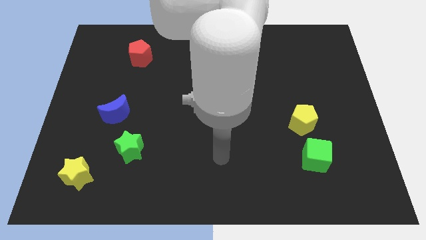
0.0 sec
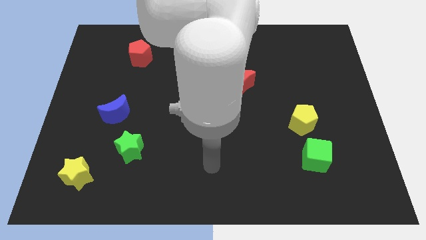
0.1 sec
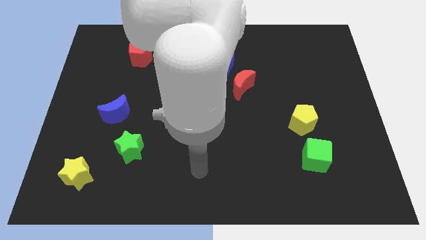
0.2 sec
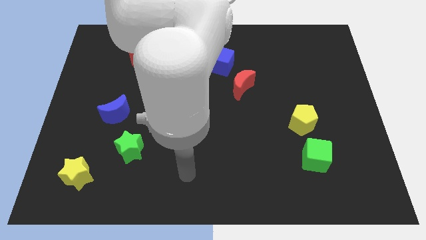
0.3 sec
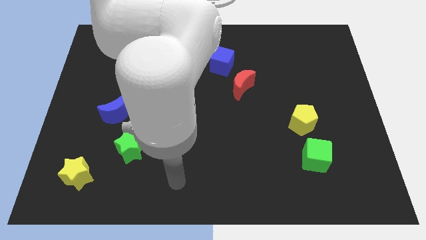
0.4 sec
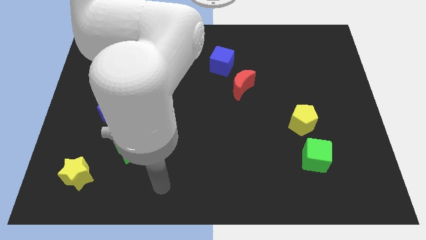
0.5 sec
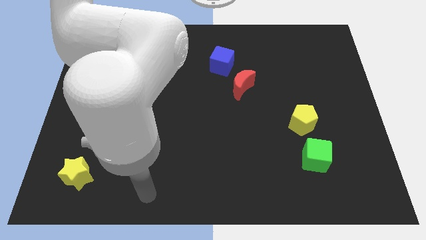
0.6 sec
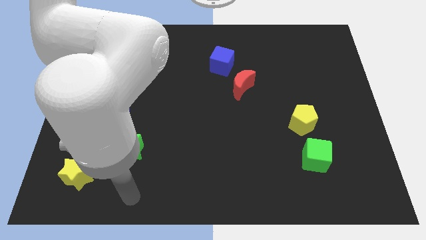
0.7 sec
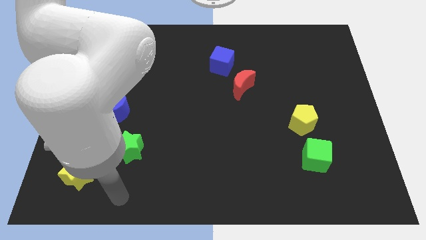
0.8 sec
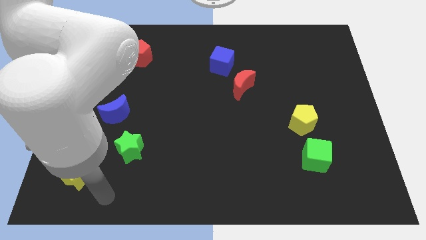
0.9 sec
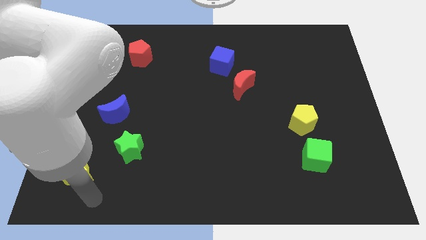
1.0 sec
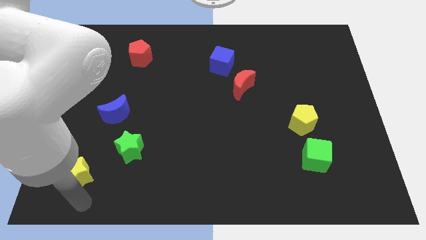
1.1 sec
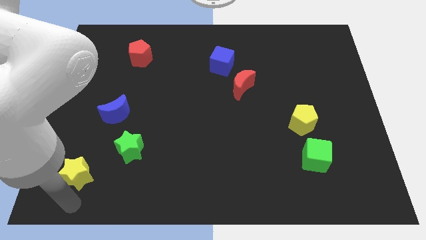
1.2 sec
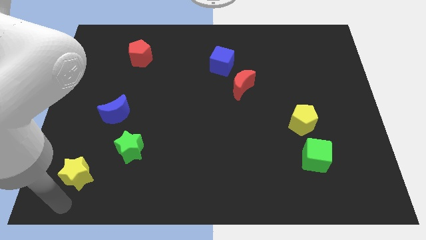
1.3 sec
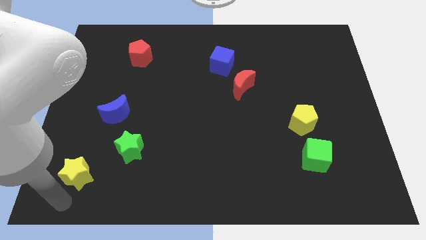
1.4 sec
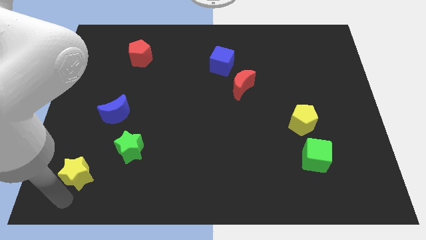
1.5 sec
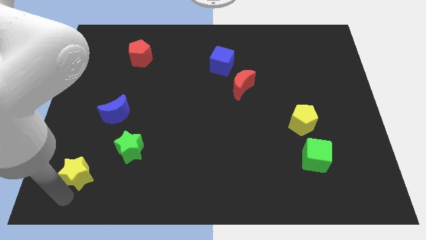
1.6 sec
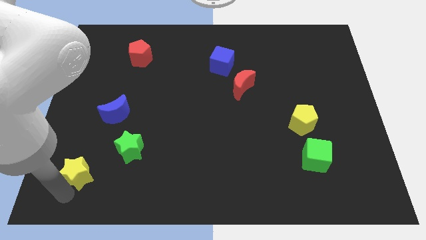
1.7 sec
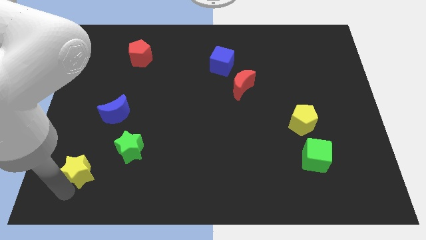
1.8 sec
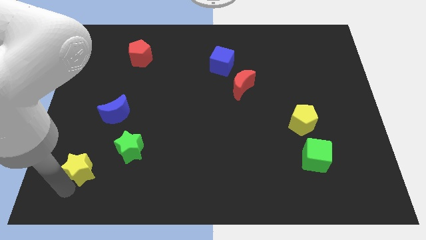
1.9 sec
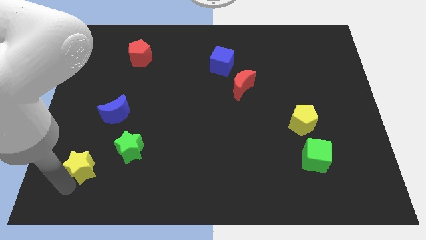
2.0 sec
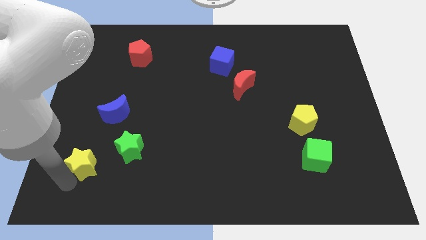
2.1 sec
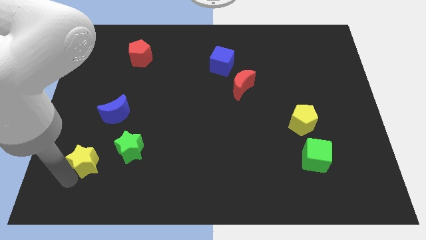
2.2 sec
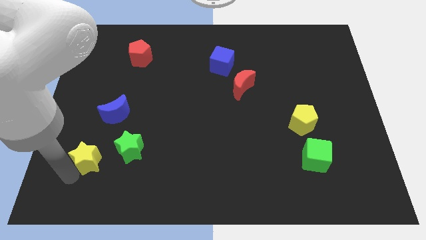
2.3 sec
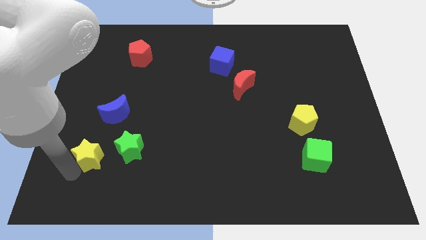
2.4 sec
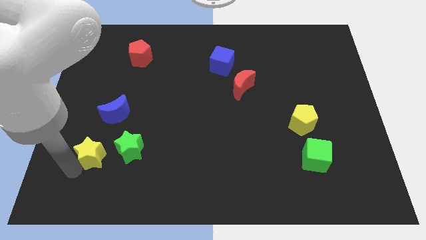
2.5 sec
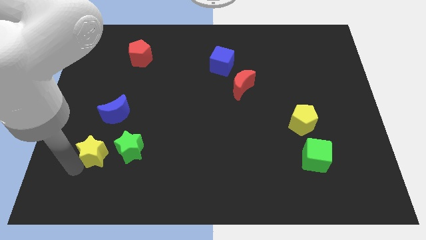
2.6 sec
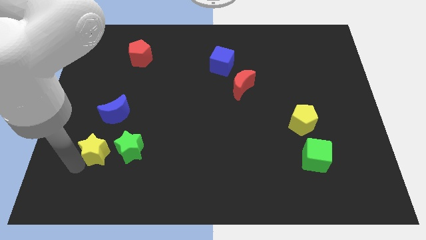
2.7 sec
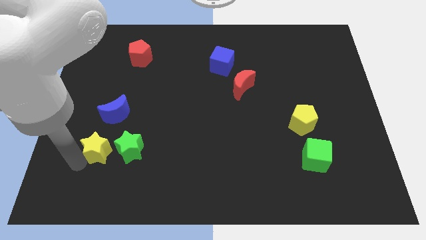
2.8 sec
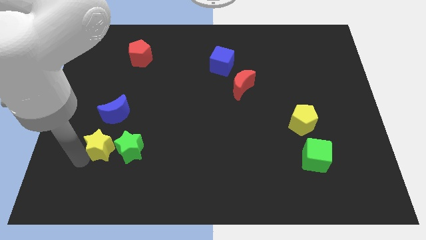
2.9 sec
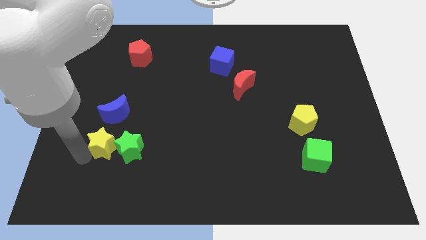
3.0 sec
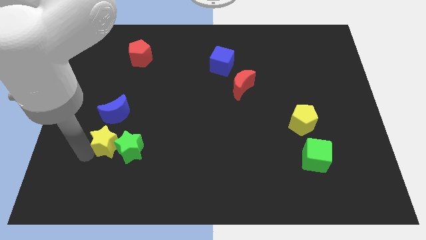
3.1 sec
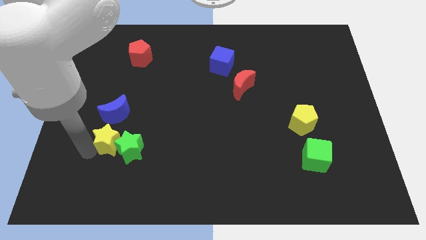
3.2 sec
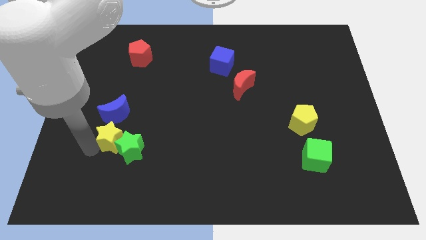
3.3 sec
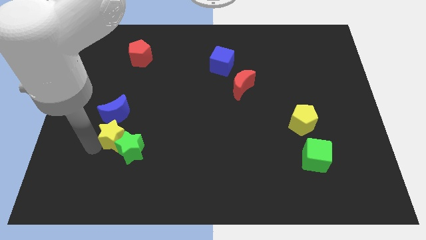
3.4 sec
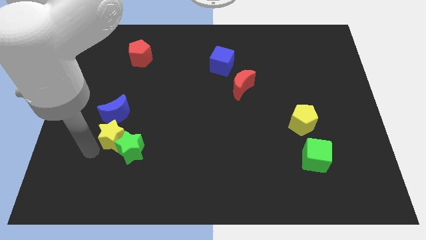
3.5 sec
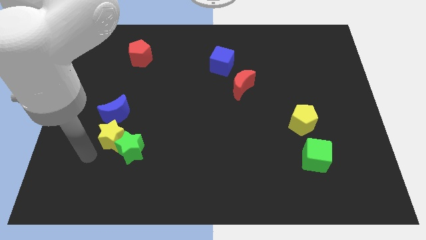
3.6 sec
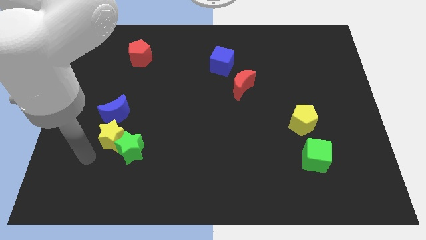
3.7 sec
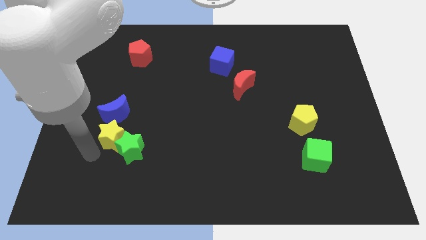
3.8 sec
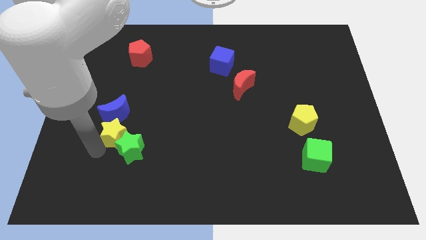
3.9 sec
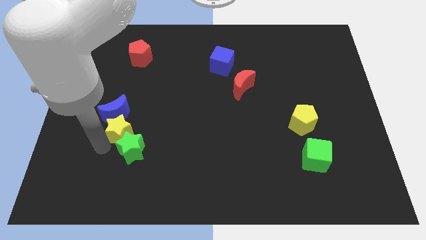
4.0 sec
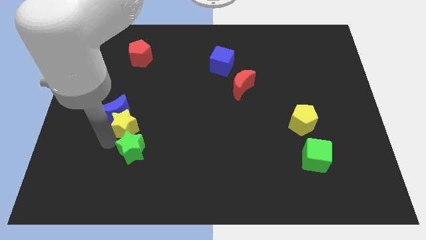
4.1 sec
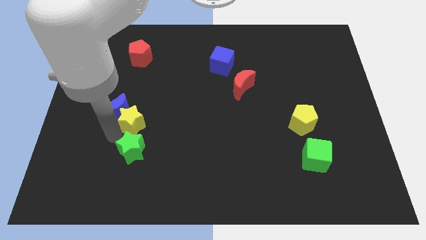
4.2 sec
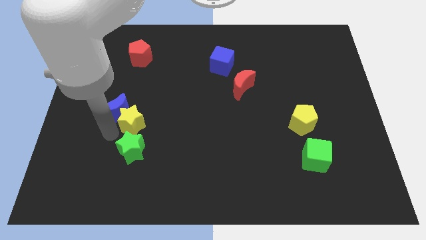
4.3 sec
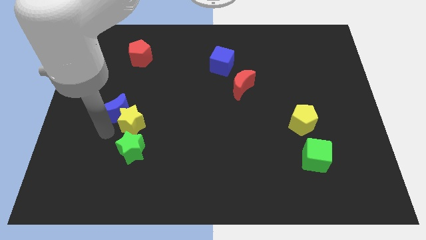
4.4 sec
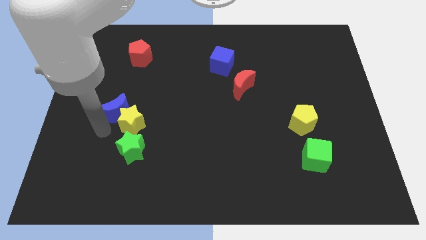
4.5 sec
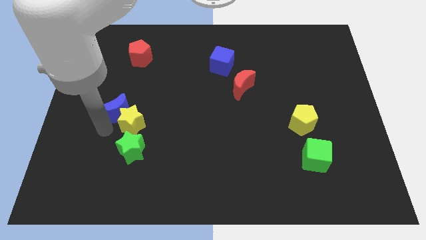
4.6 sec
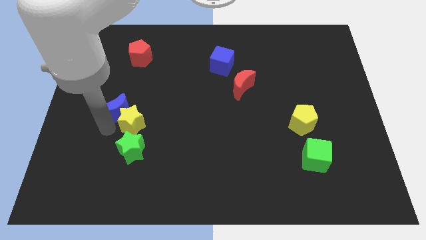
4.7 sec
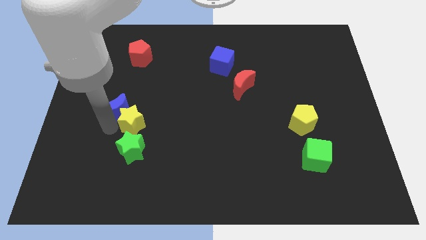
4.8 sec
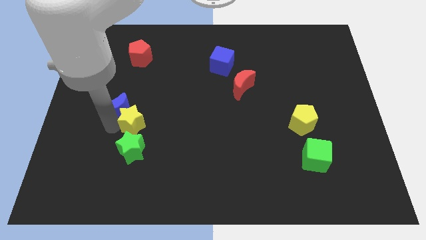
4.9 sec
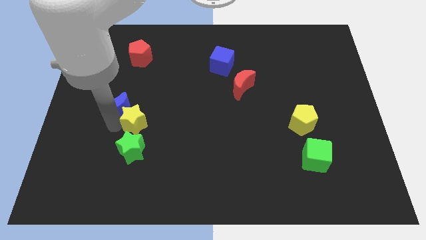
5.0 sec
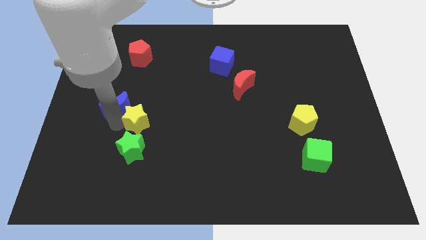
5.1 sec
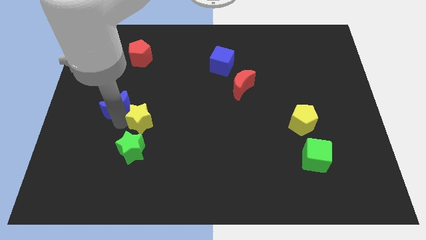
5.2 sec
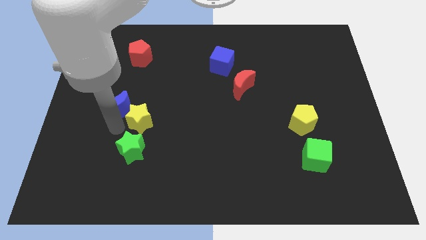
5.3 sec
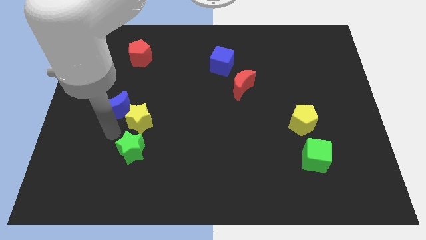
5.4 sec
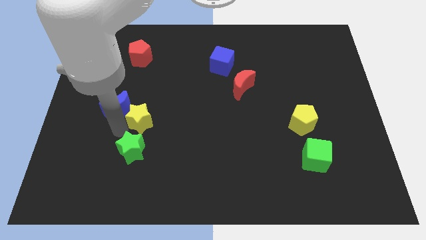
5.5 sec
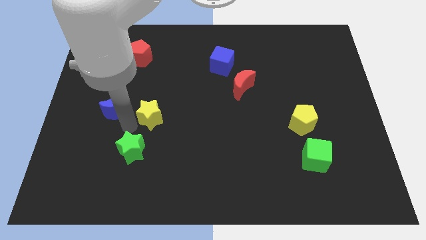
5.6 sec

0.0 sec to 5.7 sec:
slide the yellow star upwards and to the right diagonally

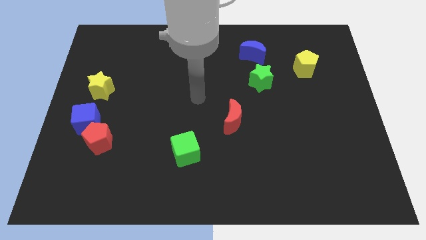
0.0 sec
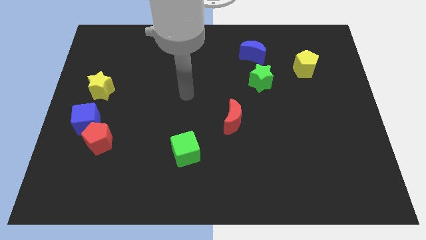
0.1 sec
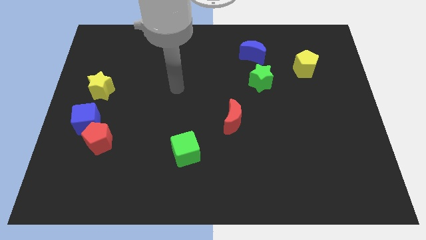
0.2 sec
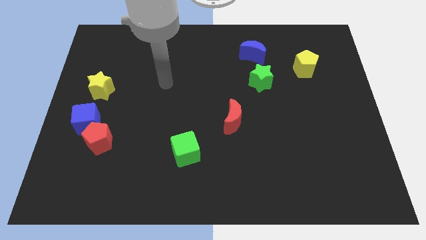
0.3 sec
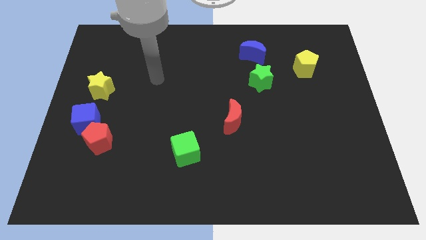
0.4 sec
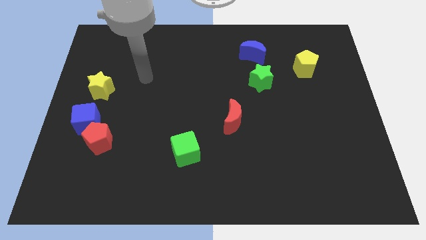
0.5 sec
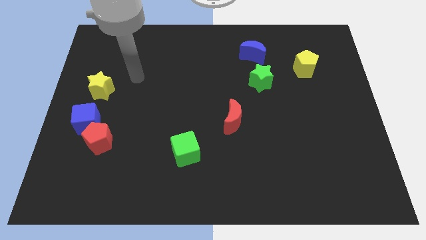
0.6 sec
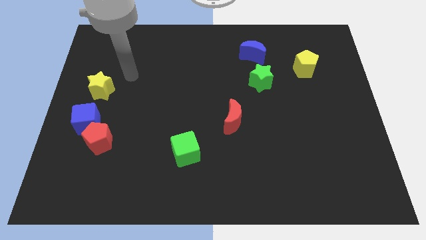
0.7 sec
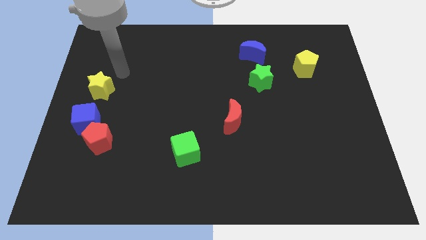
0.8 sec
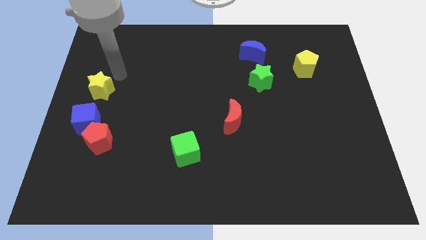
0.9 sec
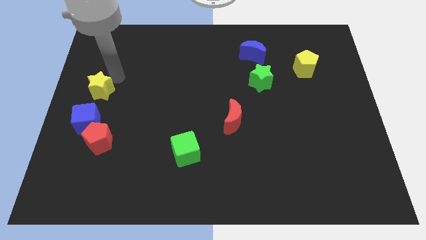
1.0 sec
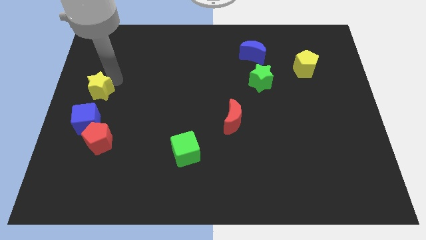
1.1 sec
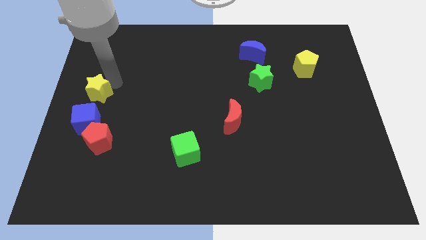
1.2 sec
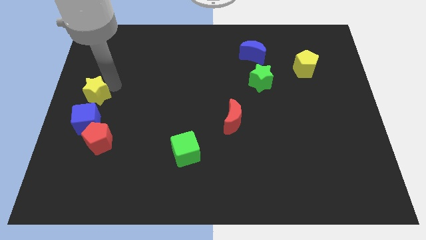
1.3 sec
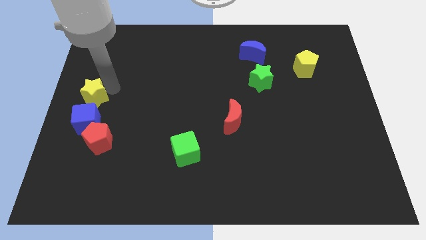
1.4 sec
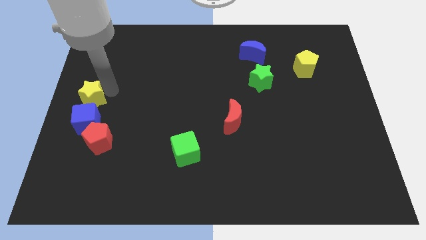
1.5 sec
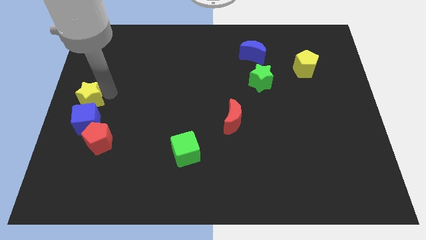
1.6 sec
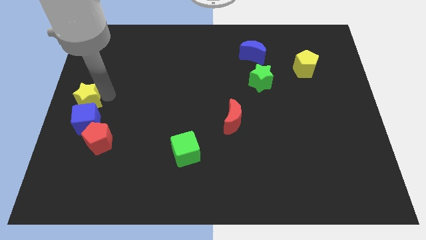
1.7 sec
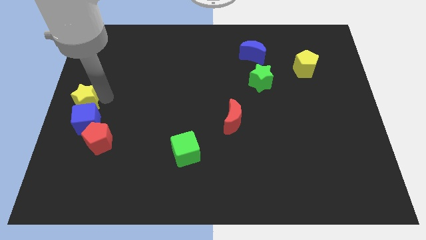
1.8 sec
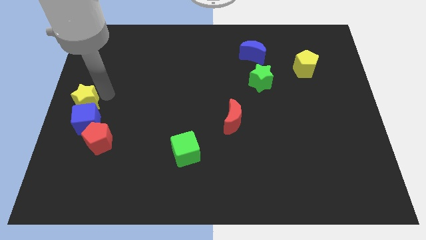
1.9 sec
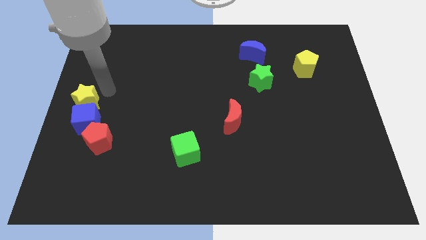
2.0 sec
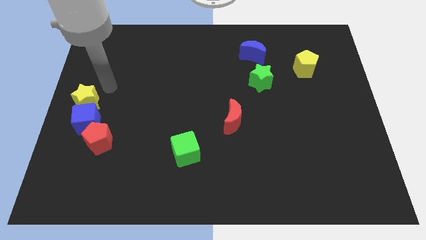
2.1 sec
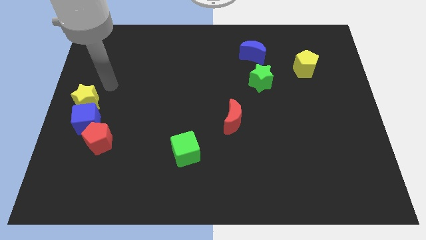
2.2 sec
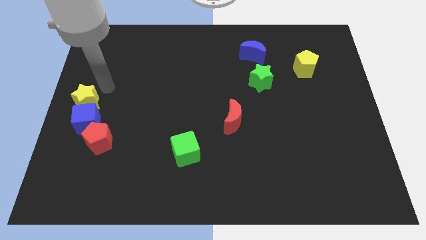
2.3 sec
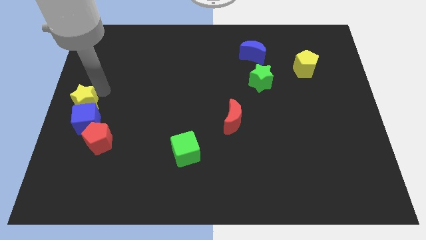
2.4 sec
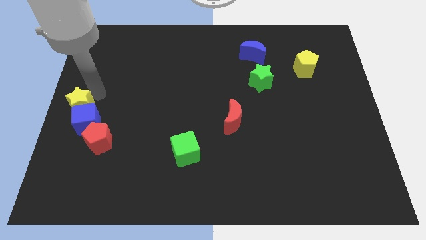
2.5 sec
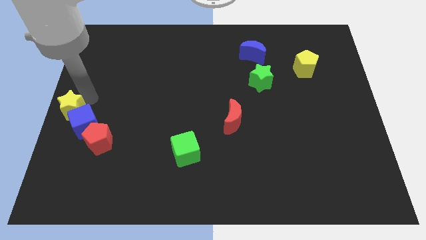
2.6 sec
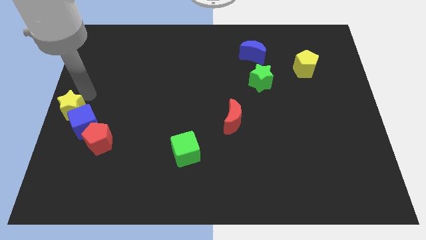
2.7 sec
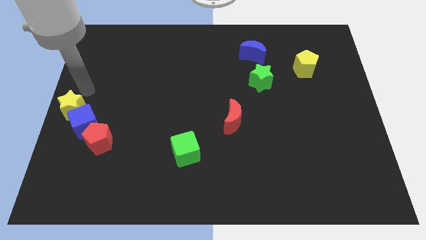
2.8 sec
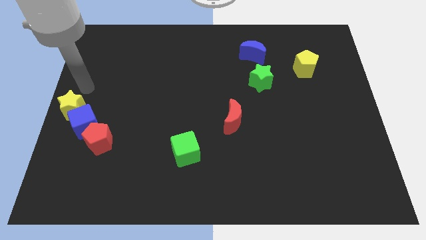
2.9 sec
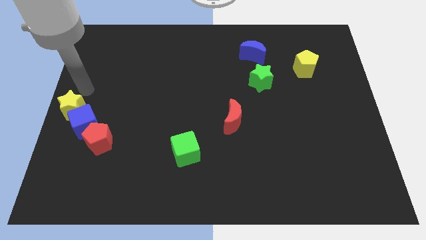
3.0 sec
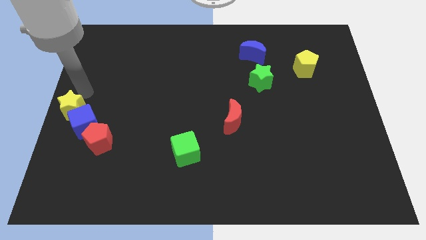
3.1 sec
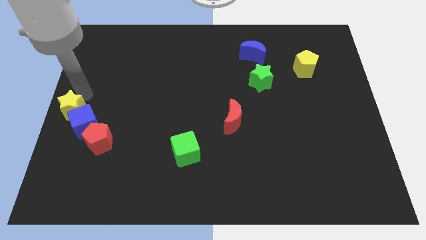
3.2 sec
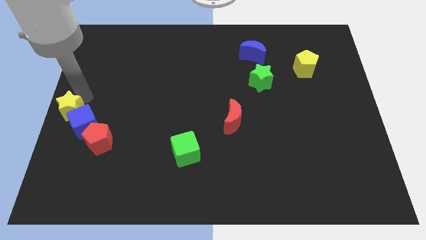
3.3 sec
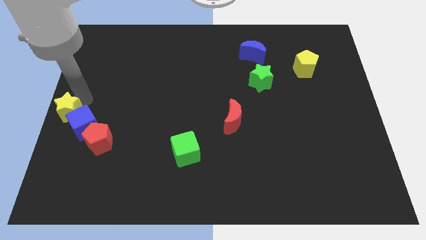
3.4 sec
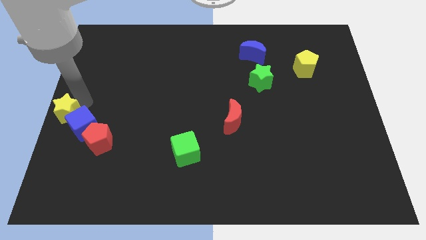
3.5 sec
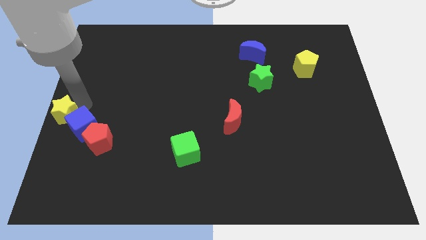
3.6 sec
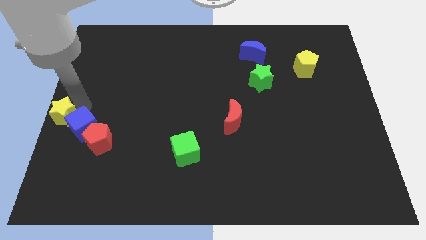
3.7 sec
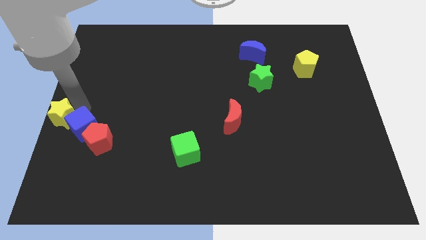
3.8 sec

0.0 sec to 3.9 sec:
push the yellow star down slightly
